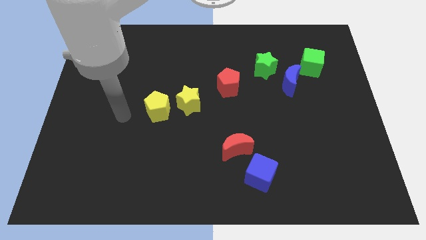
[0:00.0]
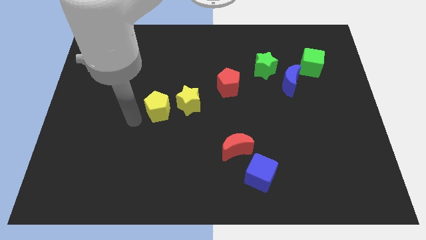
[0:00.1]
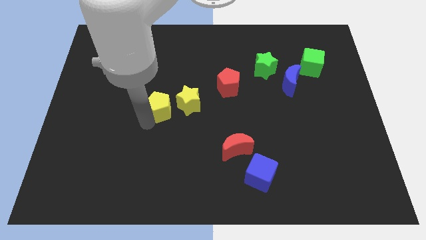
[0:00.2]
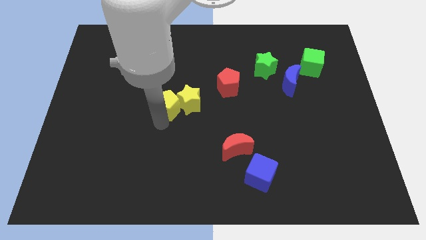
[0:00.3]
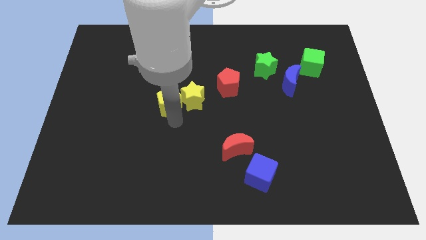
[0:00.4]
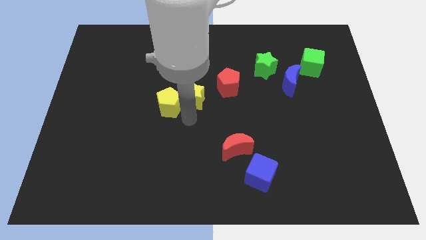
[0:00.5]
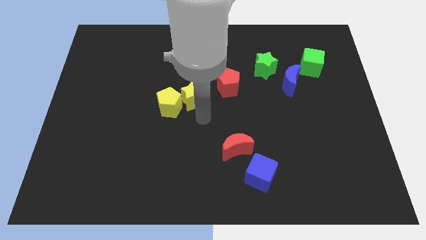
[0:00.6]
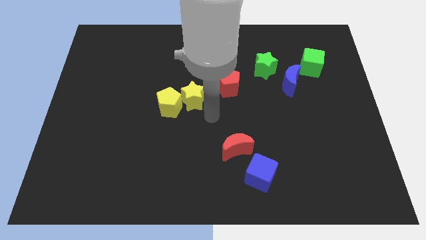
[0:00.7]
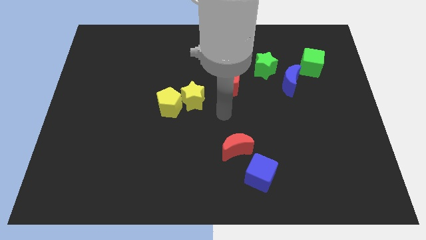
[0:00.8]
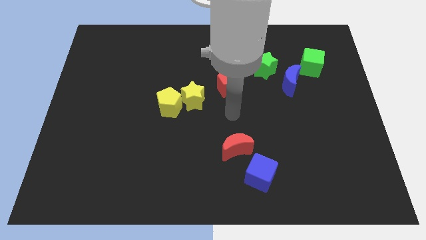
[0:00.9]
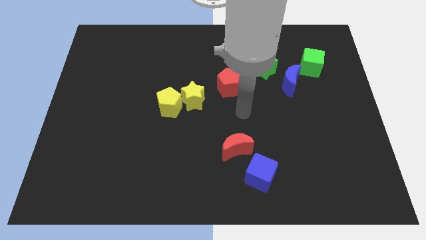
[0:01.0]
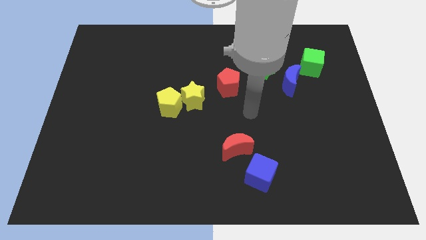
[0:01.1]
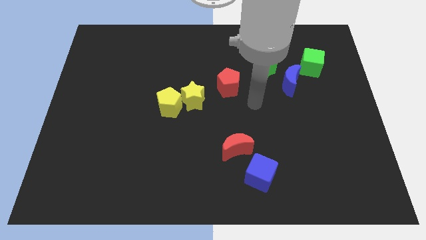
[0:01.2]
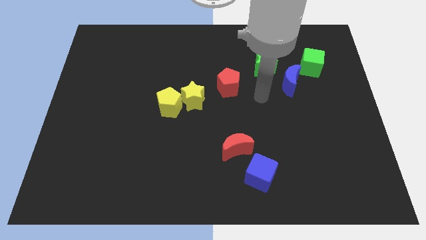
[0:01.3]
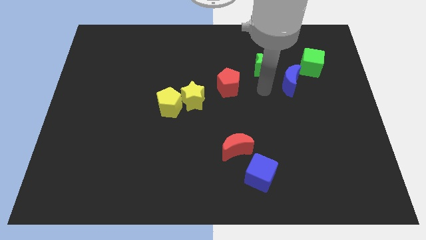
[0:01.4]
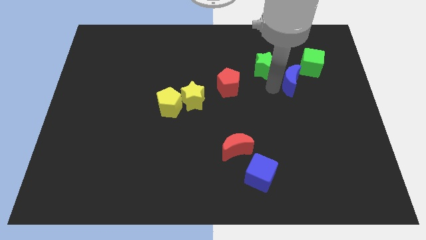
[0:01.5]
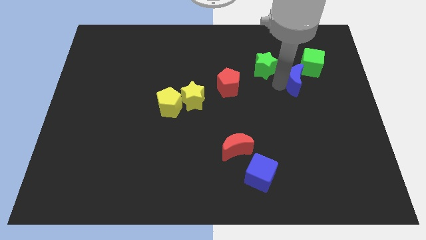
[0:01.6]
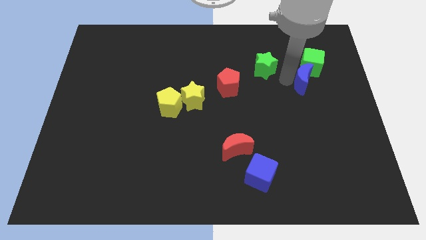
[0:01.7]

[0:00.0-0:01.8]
pull the green star apart from the blue moon

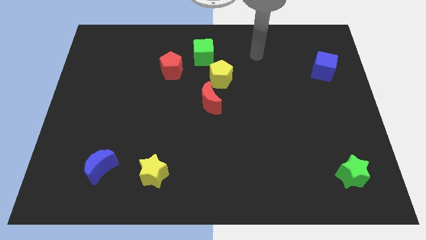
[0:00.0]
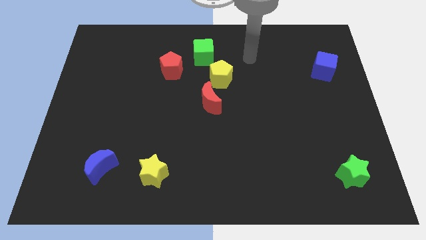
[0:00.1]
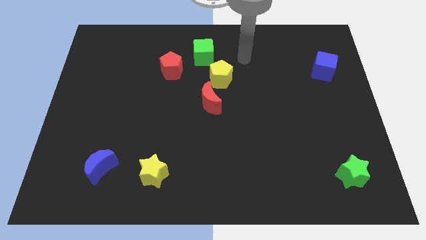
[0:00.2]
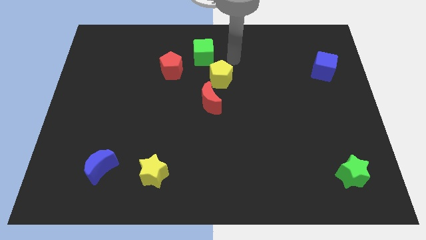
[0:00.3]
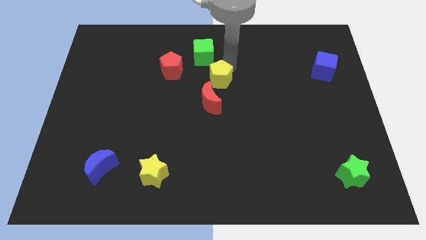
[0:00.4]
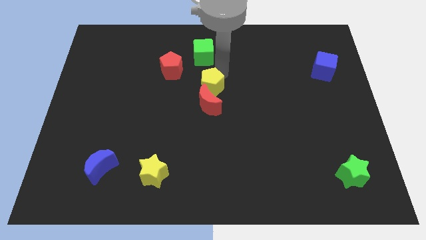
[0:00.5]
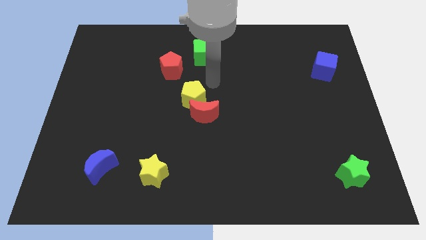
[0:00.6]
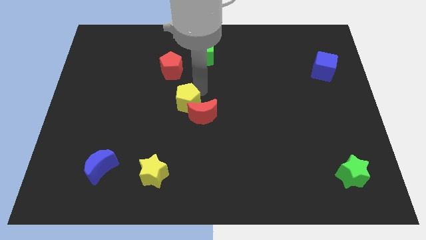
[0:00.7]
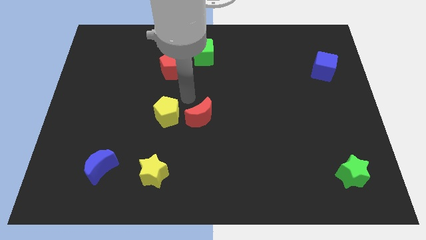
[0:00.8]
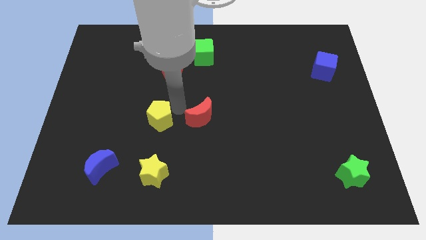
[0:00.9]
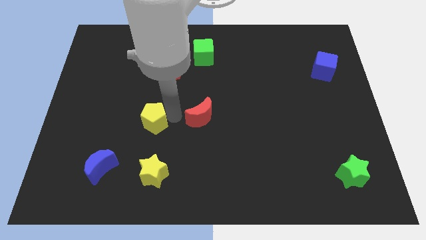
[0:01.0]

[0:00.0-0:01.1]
separate the red moon from the yellow pentagon

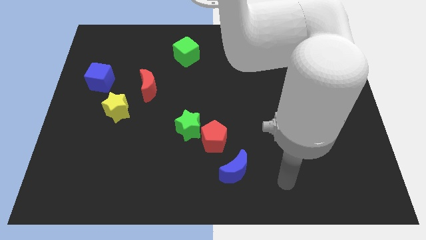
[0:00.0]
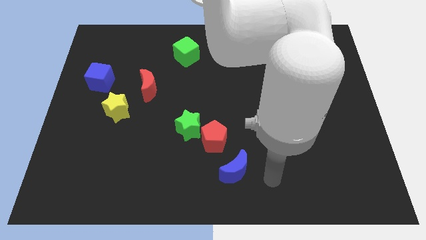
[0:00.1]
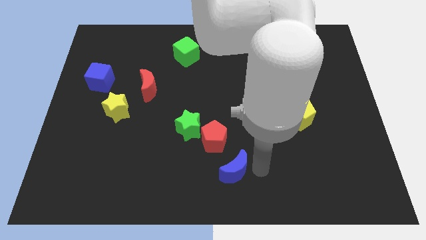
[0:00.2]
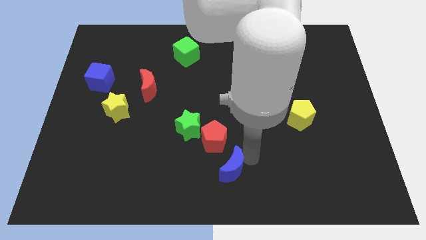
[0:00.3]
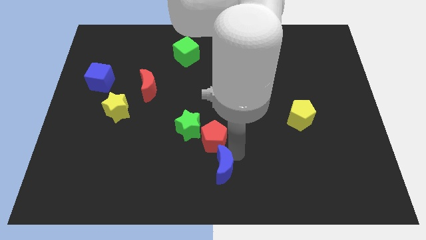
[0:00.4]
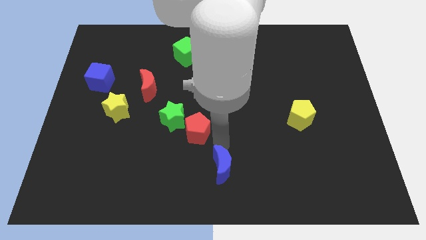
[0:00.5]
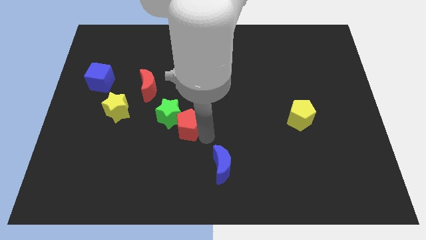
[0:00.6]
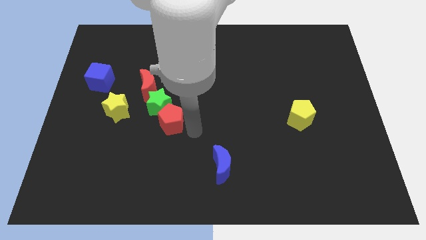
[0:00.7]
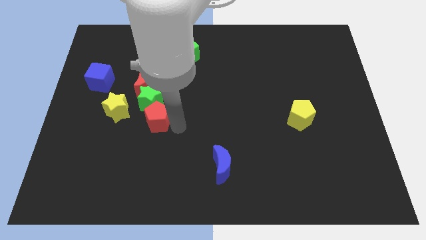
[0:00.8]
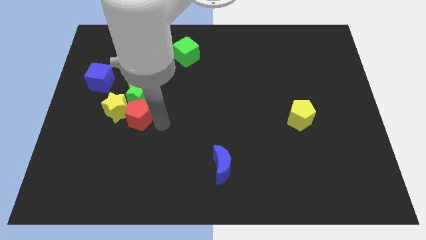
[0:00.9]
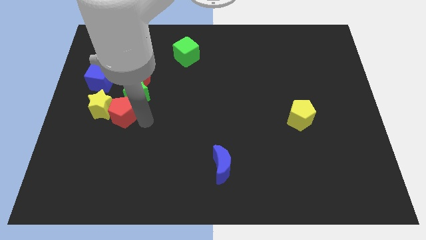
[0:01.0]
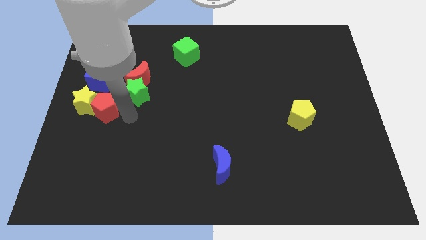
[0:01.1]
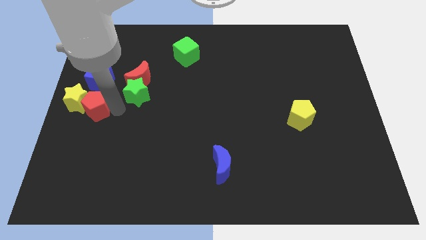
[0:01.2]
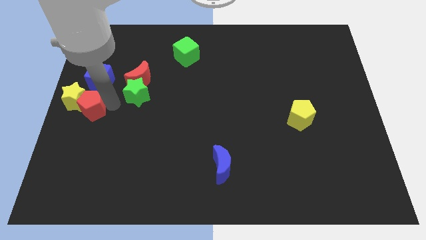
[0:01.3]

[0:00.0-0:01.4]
separate the green star from the red pentagon

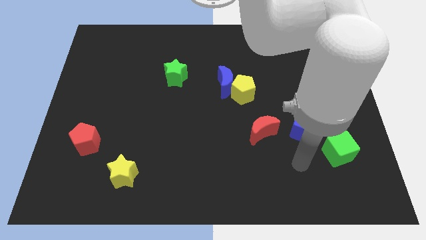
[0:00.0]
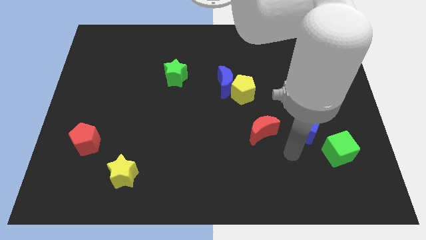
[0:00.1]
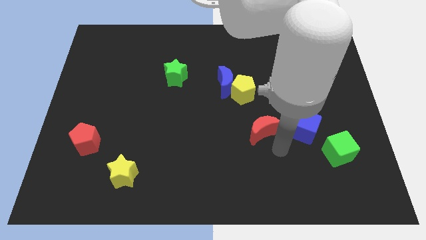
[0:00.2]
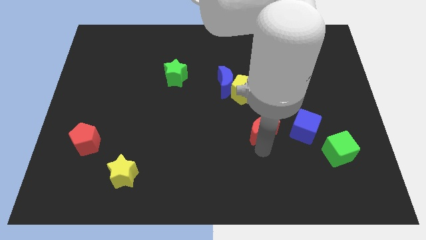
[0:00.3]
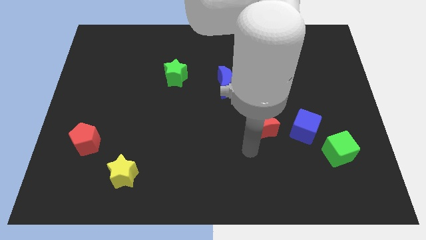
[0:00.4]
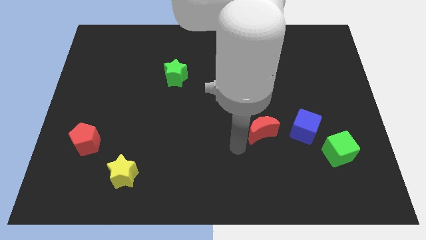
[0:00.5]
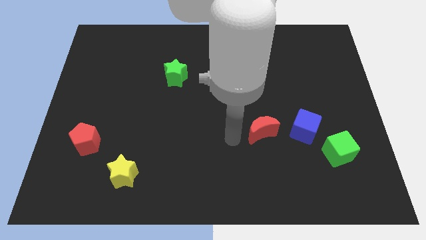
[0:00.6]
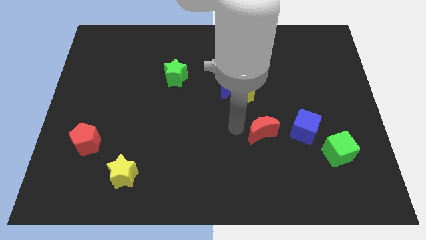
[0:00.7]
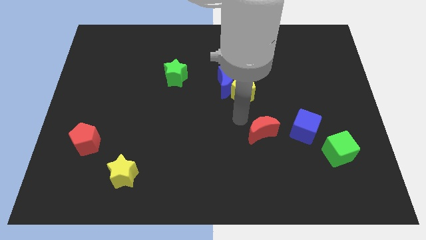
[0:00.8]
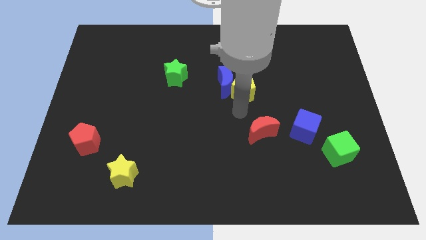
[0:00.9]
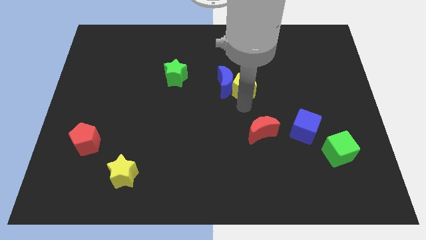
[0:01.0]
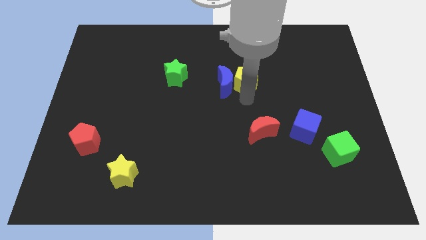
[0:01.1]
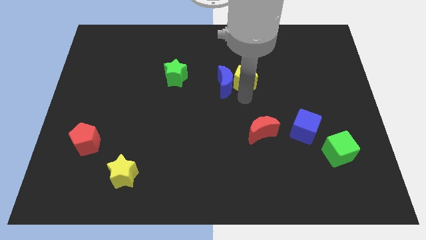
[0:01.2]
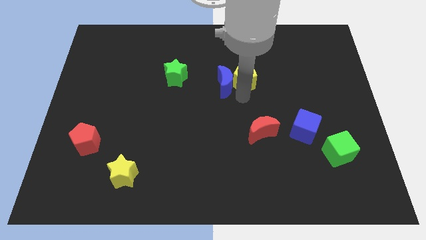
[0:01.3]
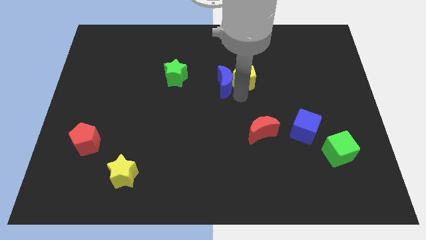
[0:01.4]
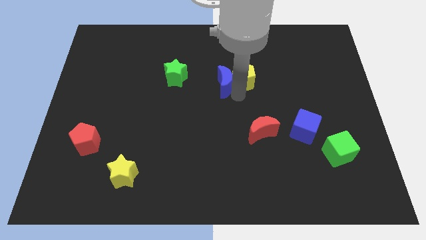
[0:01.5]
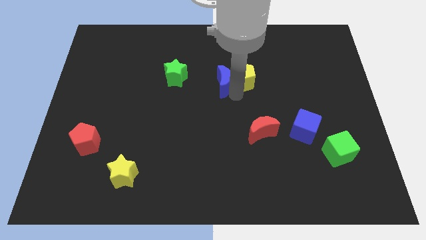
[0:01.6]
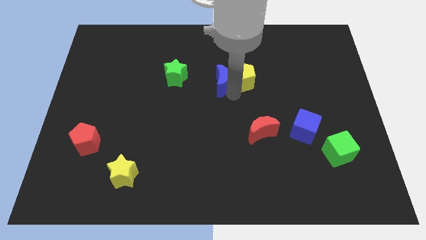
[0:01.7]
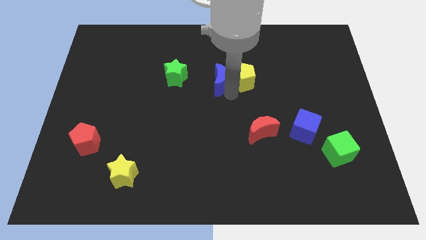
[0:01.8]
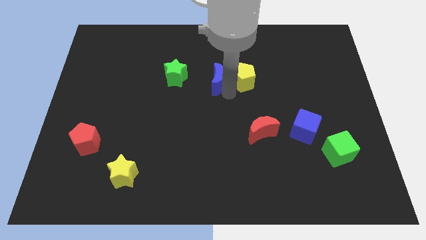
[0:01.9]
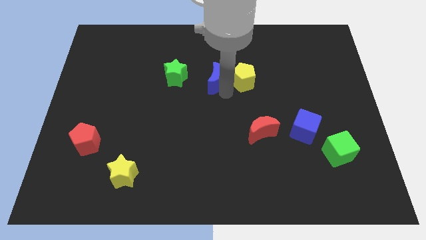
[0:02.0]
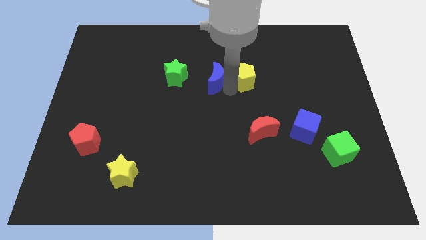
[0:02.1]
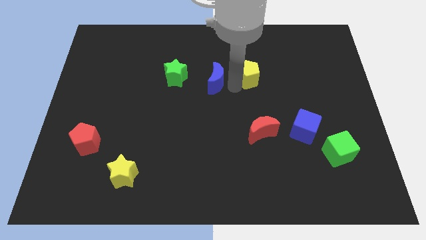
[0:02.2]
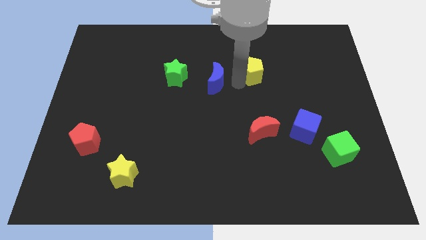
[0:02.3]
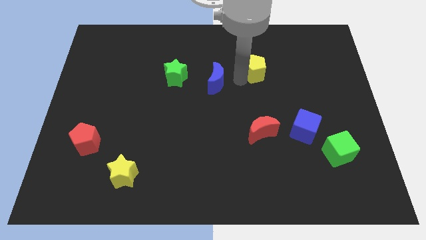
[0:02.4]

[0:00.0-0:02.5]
move the blue moon away from the yellow pentagon

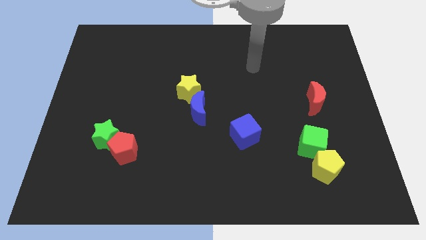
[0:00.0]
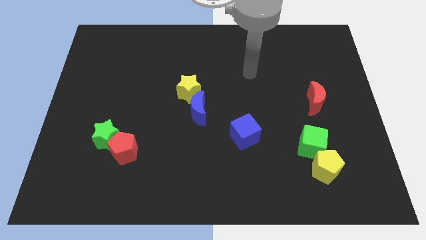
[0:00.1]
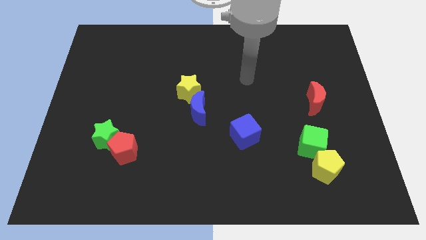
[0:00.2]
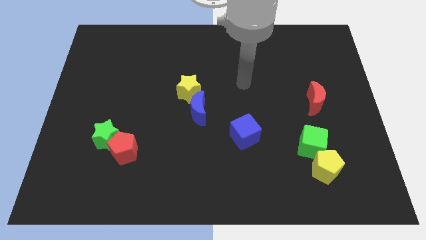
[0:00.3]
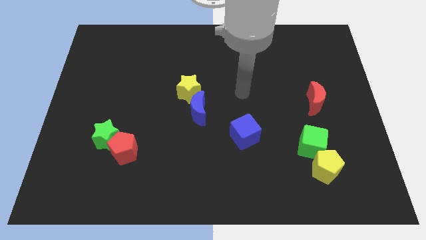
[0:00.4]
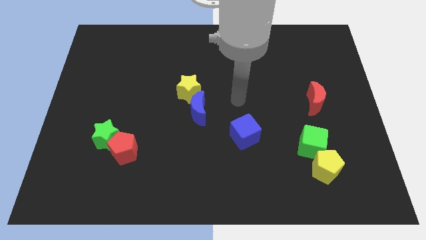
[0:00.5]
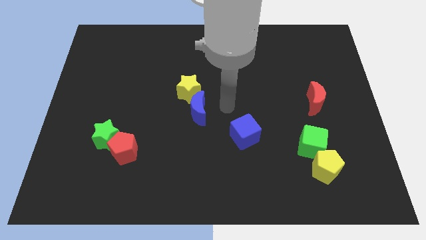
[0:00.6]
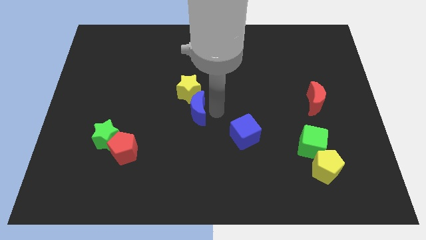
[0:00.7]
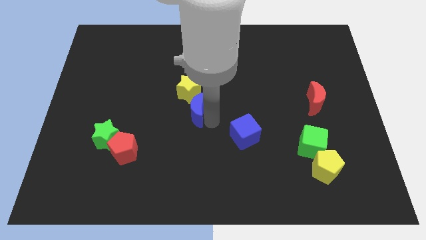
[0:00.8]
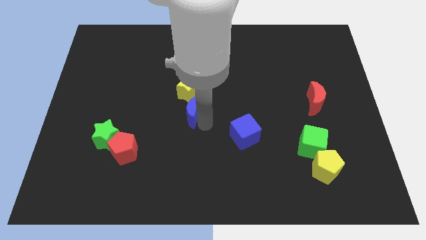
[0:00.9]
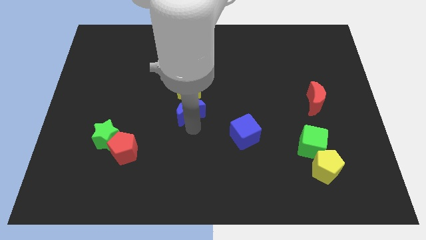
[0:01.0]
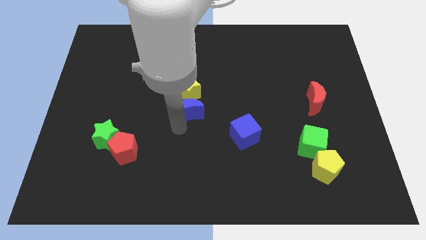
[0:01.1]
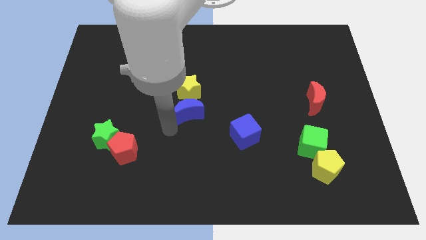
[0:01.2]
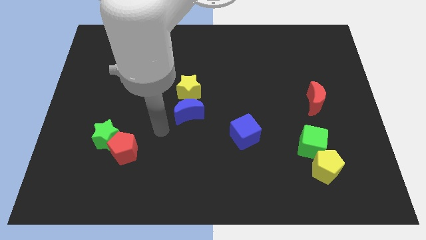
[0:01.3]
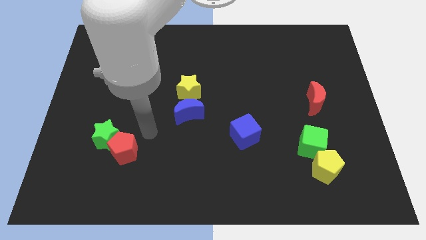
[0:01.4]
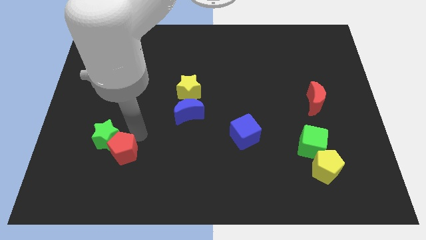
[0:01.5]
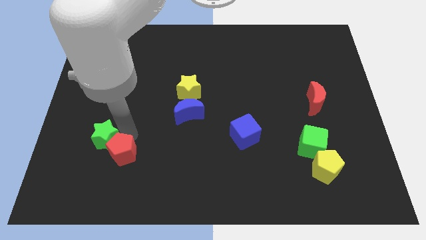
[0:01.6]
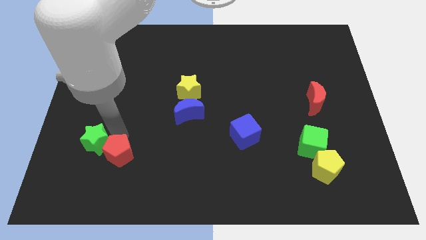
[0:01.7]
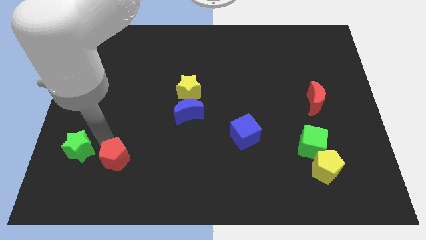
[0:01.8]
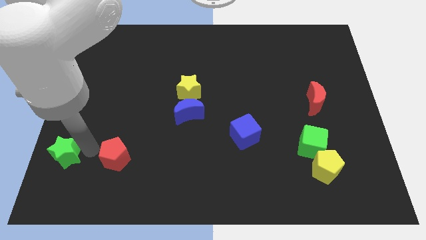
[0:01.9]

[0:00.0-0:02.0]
separate the red pentagon from the green star

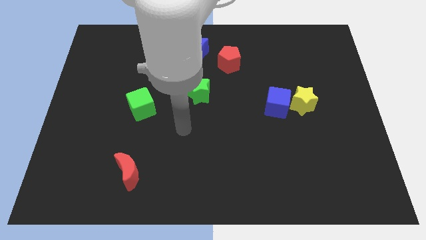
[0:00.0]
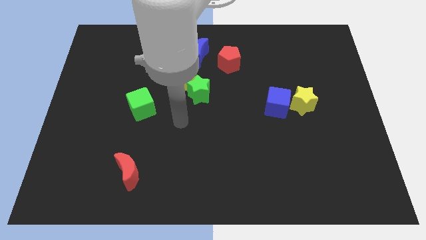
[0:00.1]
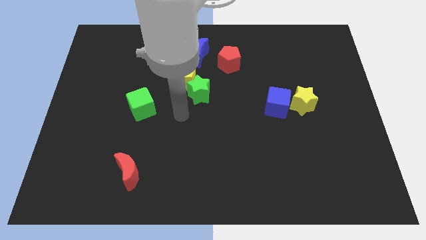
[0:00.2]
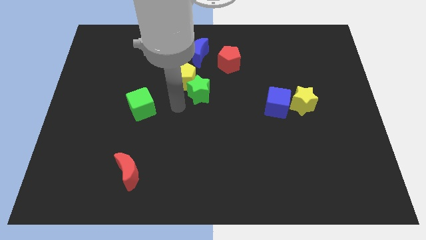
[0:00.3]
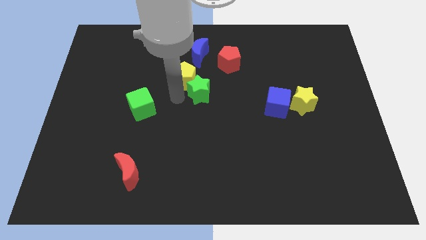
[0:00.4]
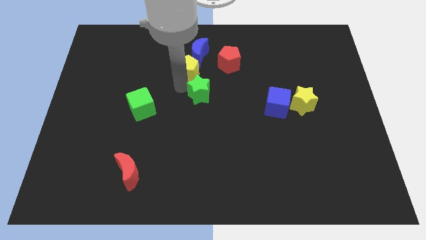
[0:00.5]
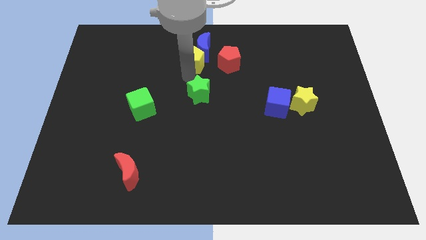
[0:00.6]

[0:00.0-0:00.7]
separate the green star from the yellow pentagon
